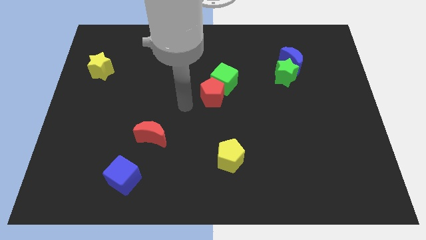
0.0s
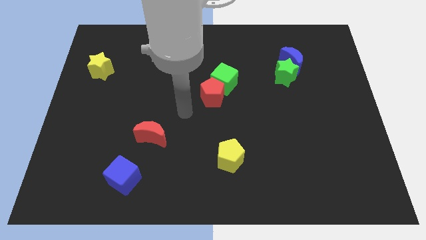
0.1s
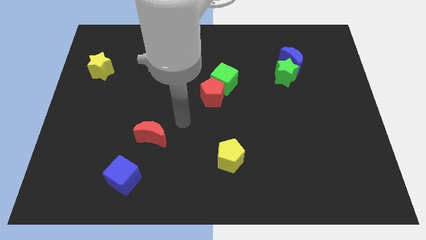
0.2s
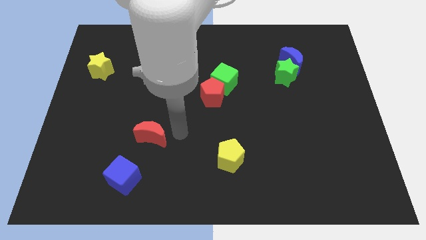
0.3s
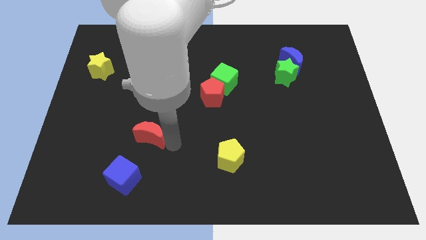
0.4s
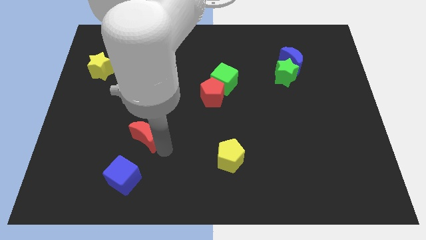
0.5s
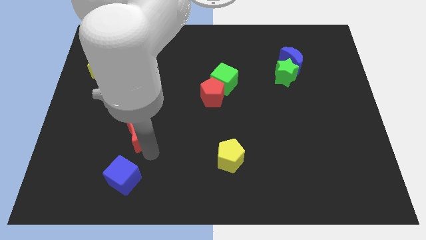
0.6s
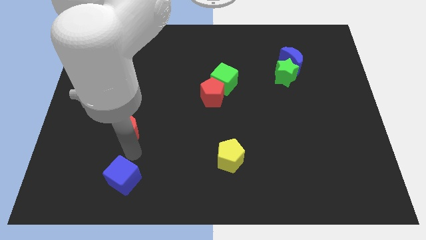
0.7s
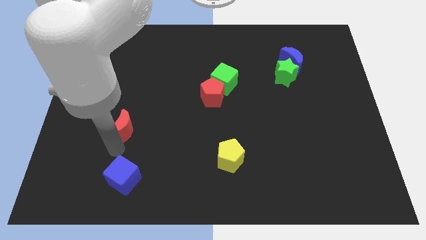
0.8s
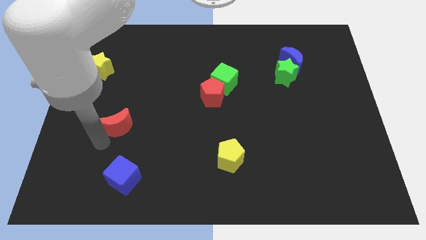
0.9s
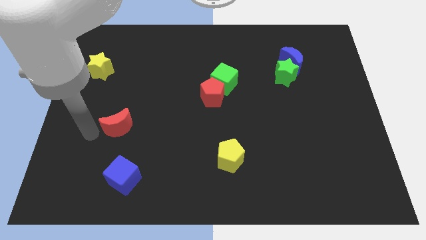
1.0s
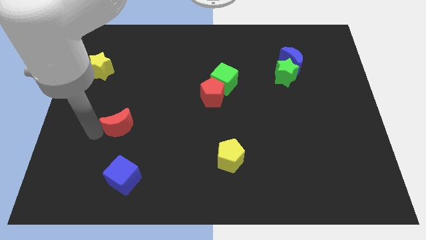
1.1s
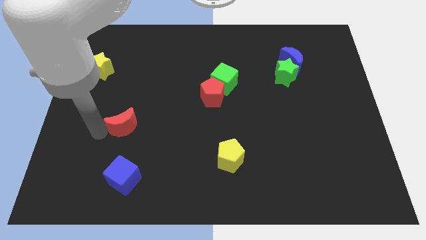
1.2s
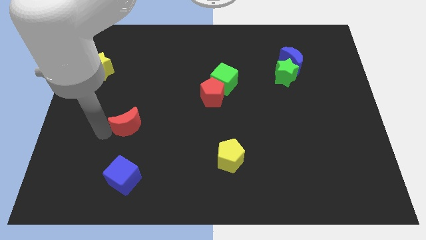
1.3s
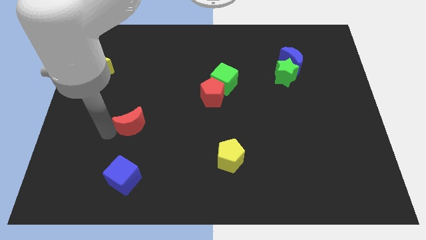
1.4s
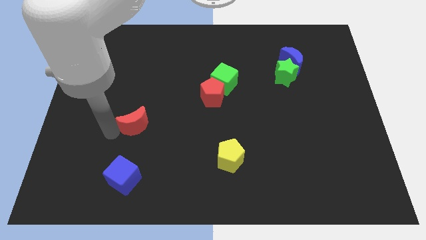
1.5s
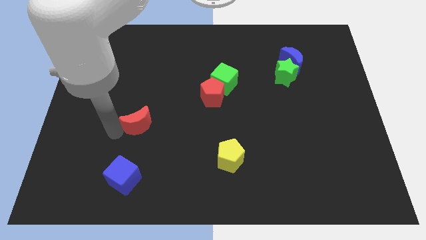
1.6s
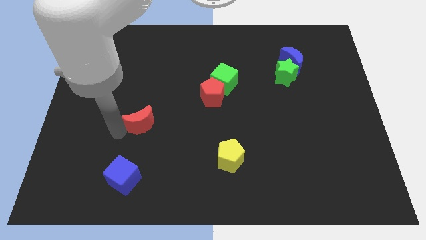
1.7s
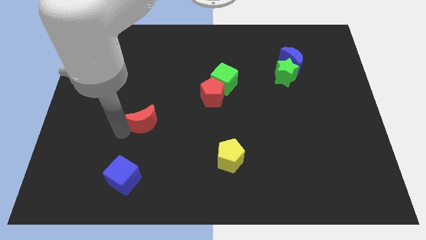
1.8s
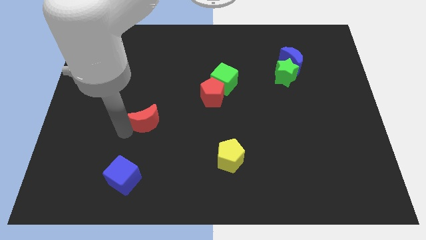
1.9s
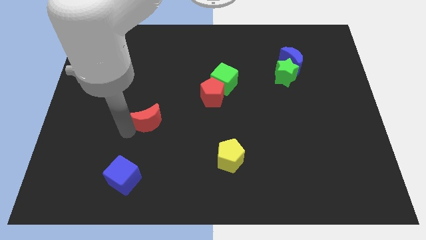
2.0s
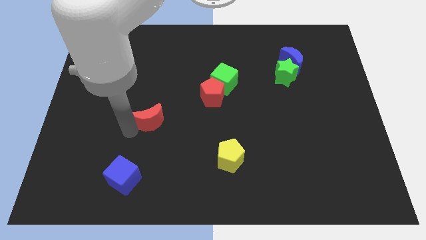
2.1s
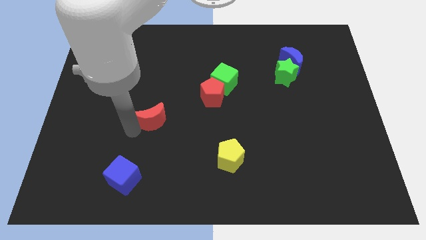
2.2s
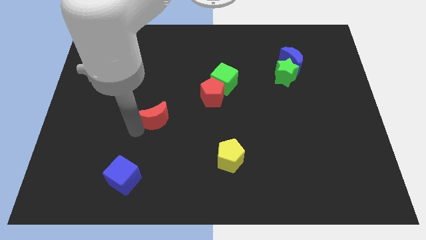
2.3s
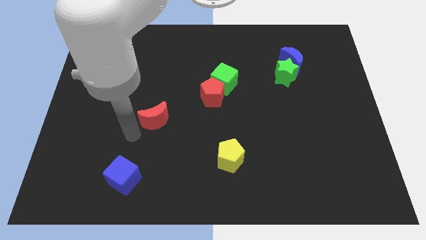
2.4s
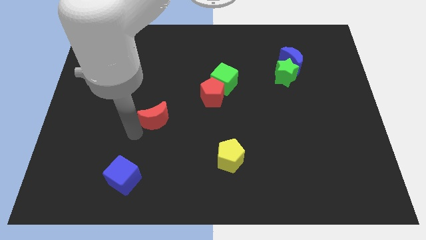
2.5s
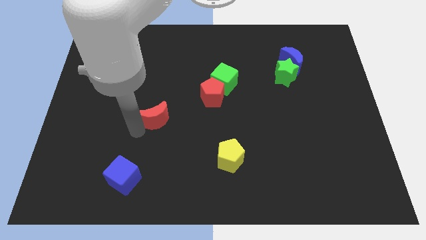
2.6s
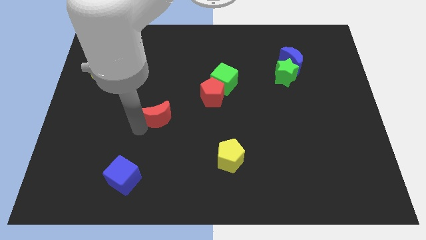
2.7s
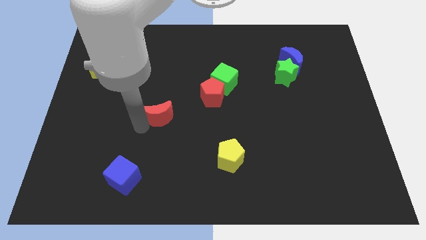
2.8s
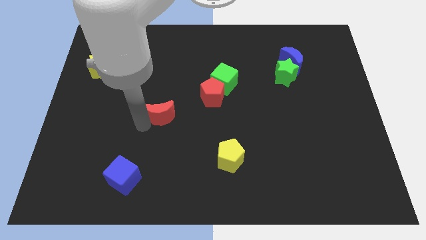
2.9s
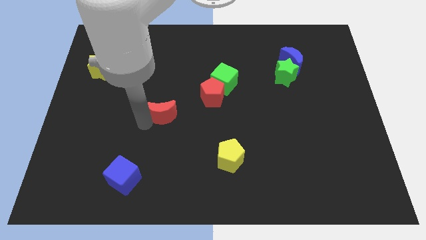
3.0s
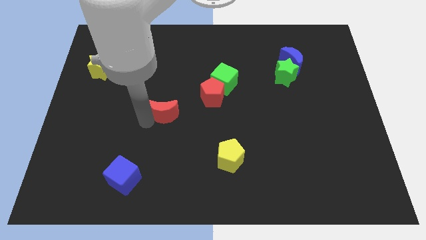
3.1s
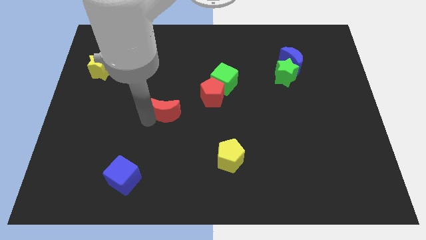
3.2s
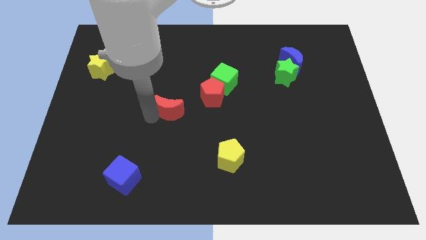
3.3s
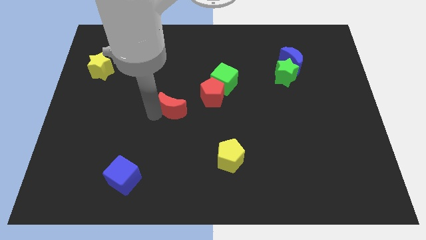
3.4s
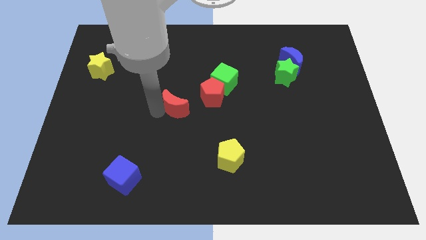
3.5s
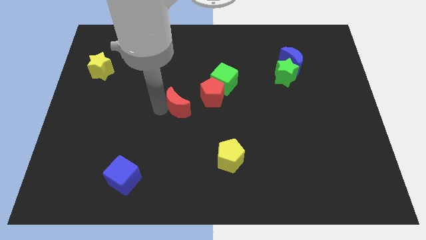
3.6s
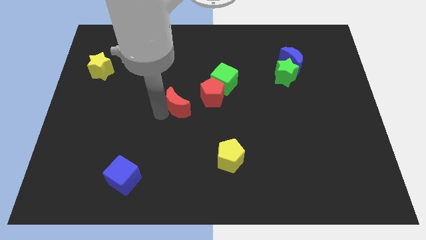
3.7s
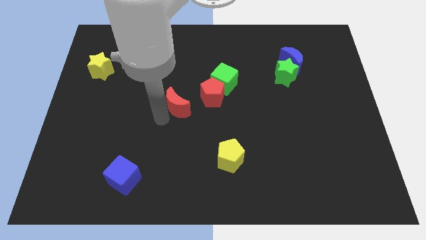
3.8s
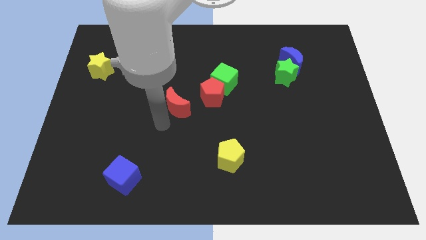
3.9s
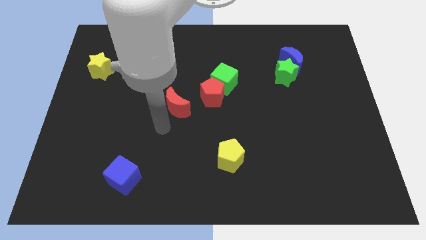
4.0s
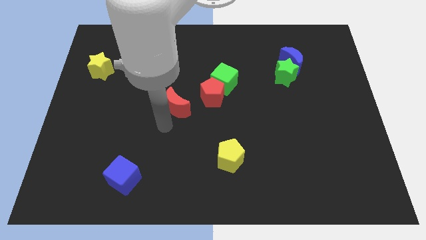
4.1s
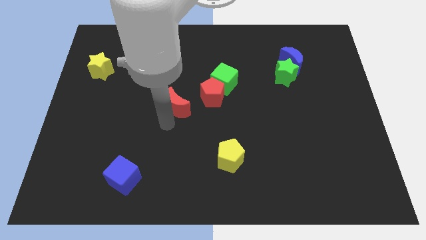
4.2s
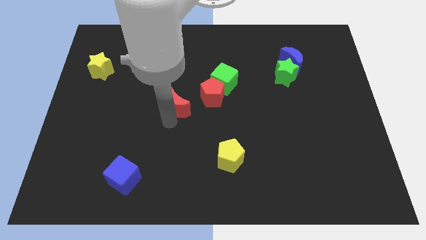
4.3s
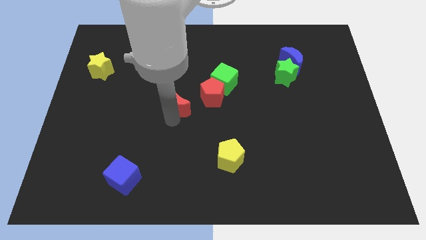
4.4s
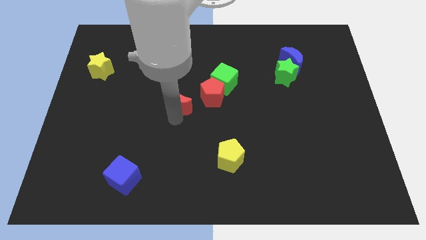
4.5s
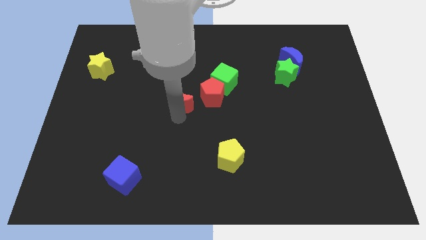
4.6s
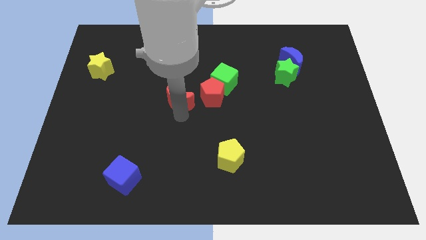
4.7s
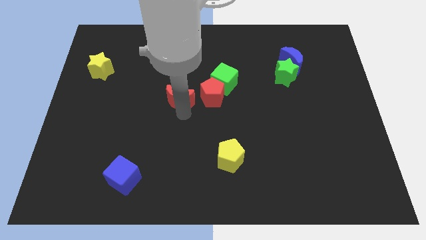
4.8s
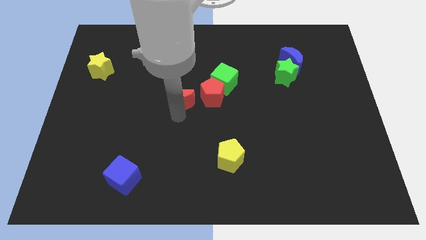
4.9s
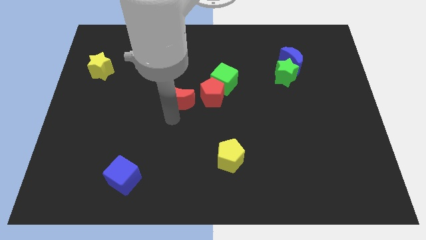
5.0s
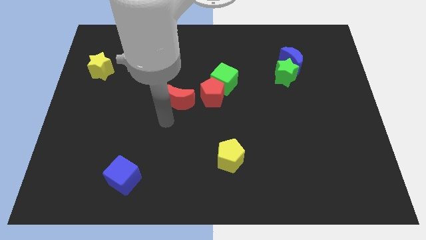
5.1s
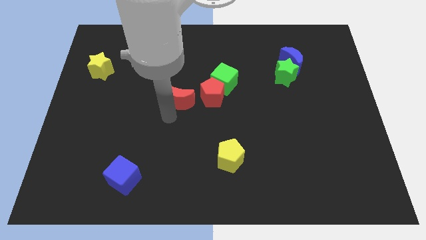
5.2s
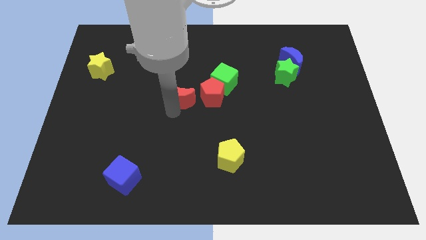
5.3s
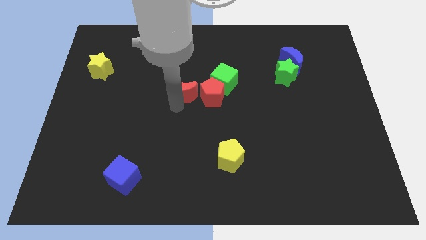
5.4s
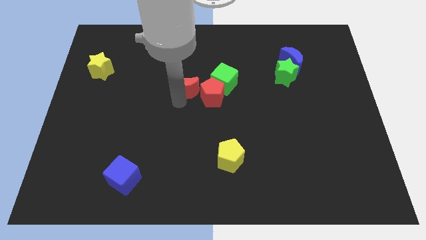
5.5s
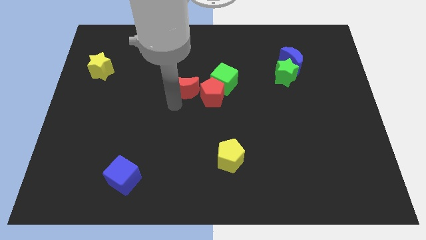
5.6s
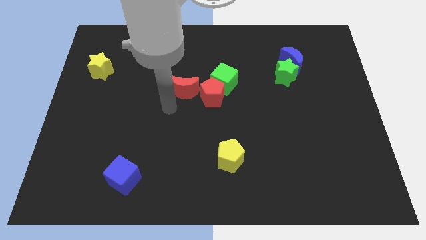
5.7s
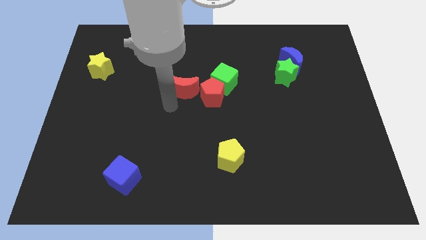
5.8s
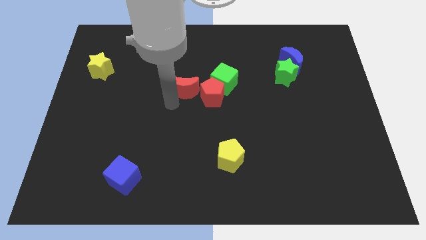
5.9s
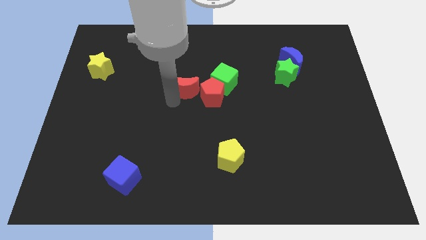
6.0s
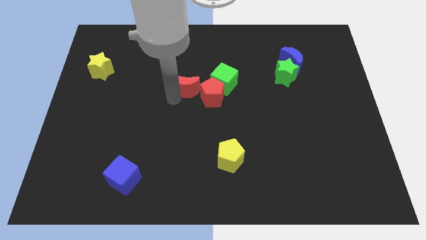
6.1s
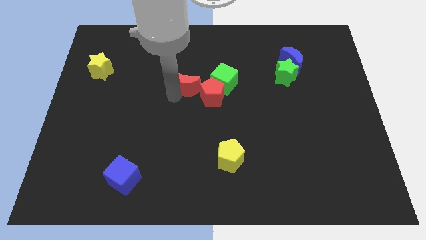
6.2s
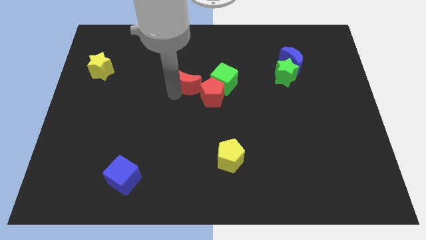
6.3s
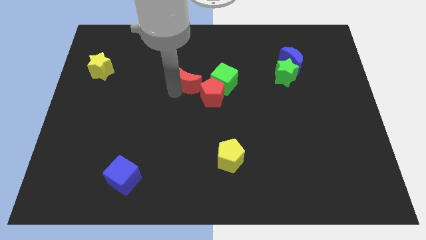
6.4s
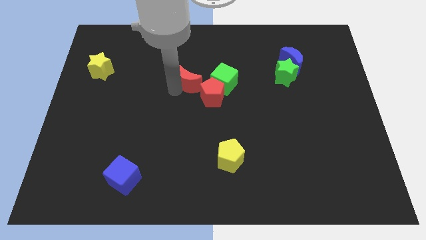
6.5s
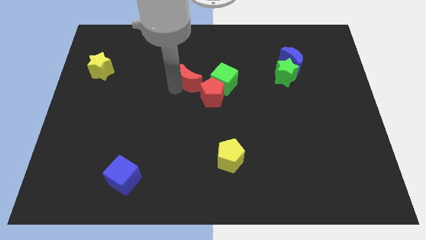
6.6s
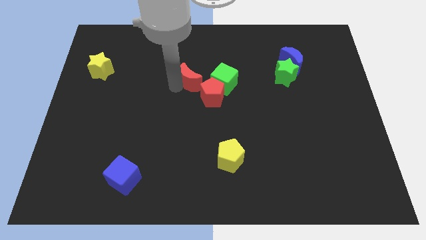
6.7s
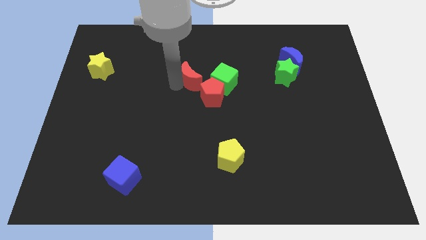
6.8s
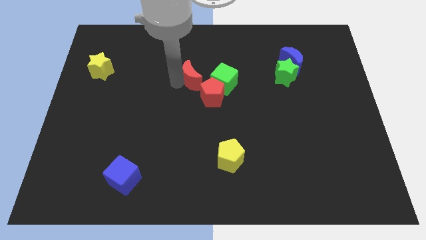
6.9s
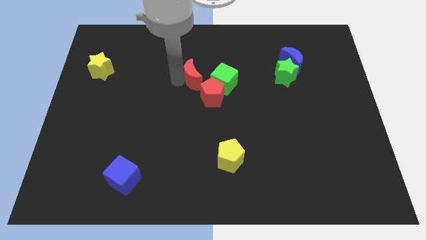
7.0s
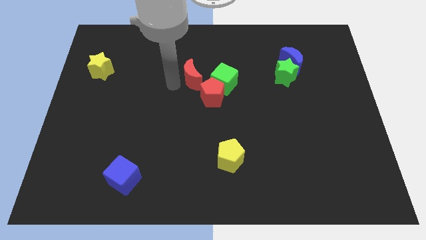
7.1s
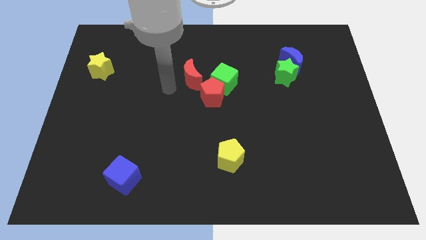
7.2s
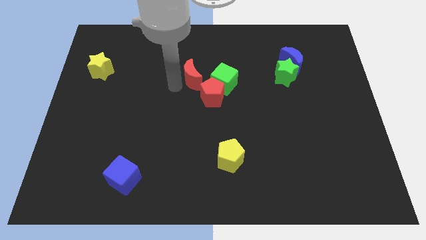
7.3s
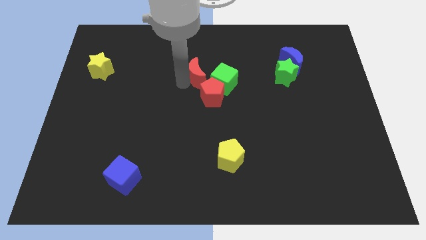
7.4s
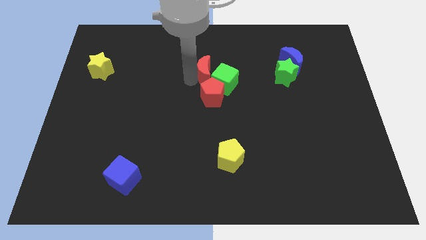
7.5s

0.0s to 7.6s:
push the red moon up and then right

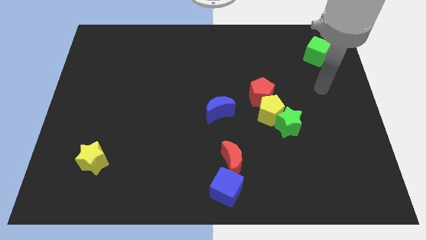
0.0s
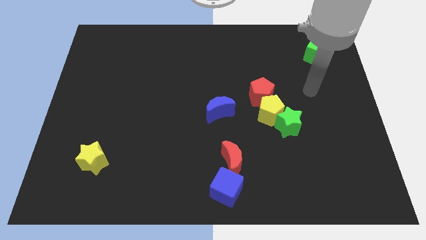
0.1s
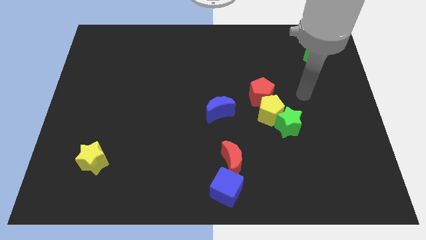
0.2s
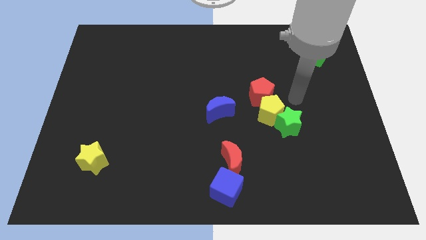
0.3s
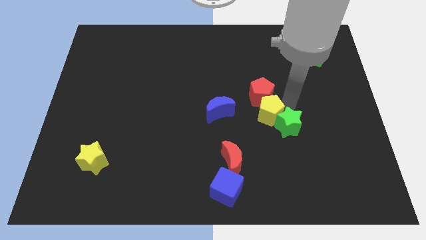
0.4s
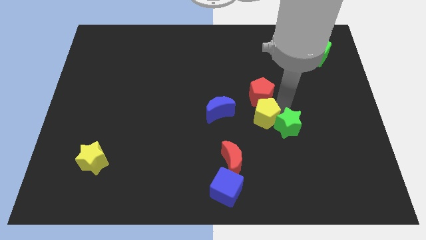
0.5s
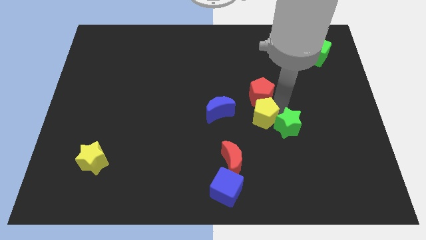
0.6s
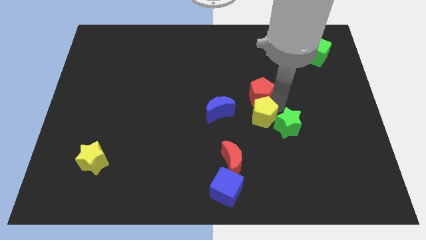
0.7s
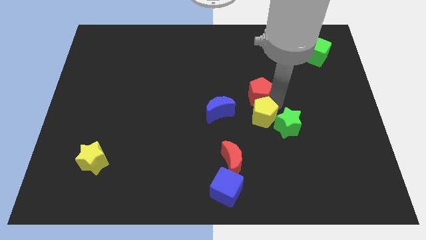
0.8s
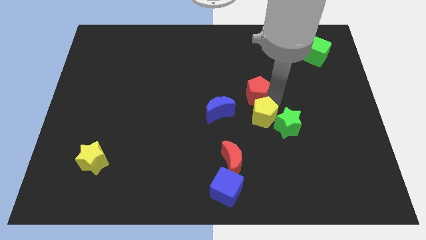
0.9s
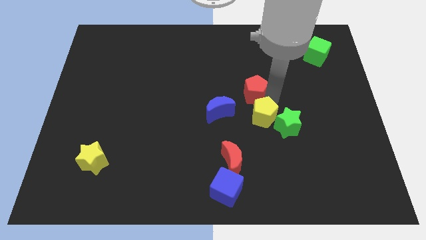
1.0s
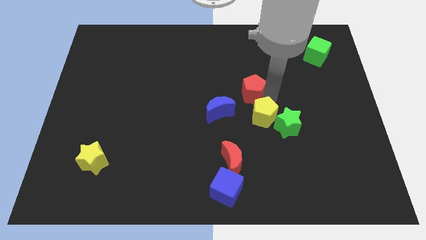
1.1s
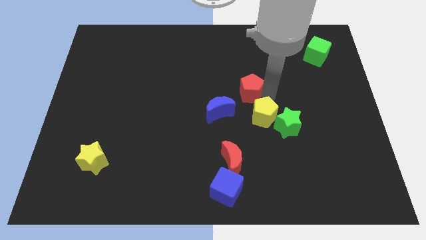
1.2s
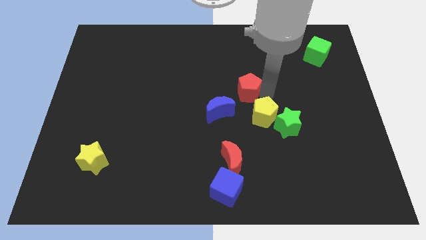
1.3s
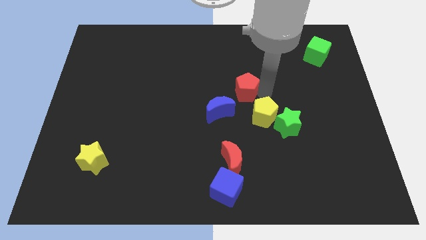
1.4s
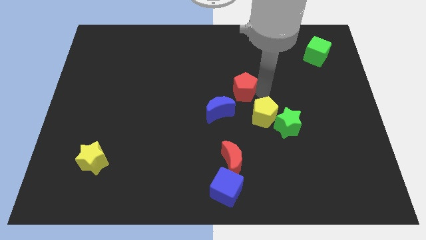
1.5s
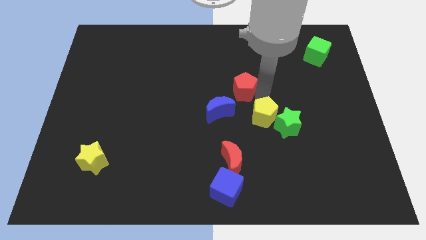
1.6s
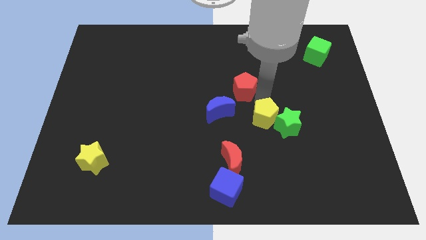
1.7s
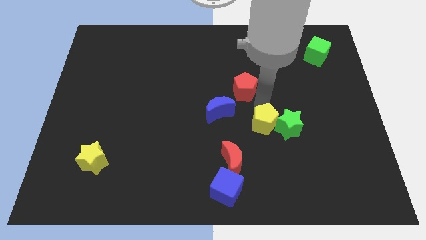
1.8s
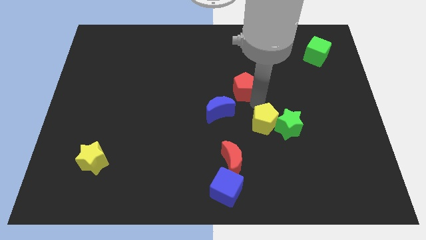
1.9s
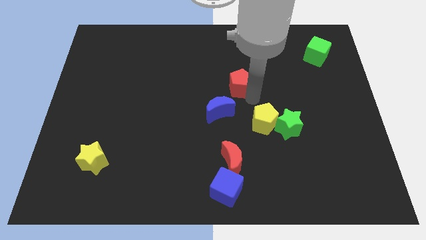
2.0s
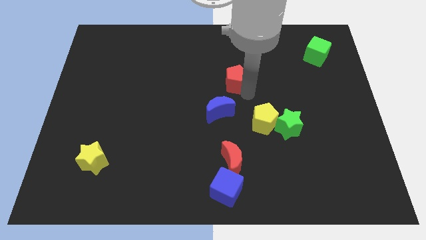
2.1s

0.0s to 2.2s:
push the red pentagon up and left a little bit
